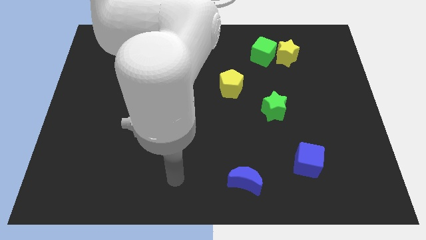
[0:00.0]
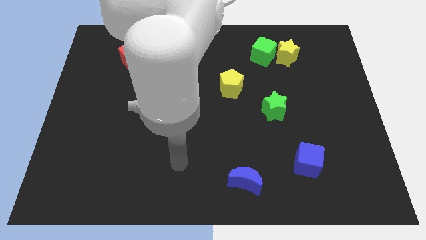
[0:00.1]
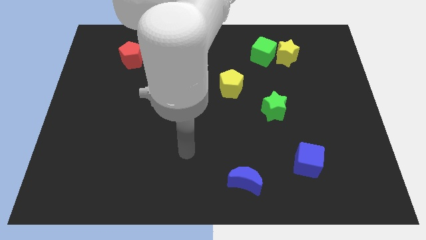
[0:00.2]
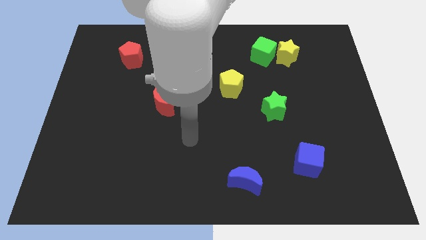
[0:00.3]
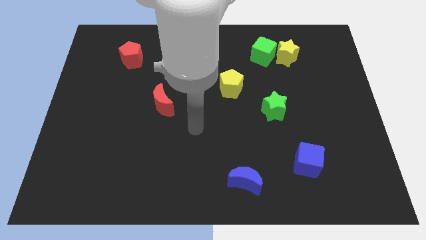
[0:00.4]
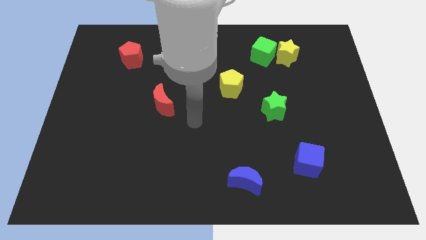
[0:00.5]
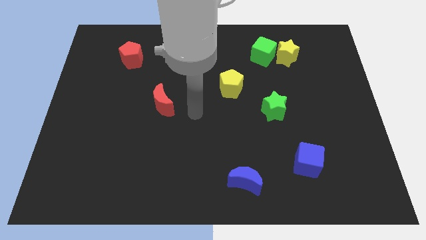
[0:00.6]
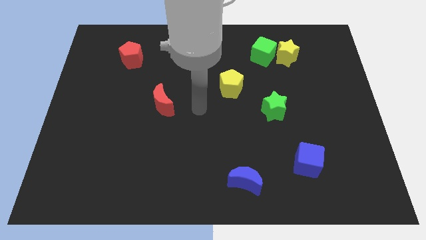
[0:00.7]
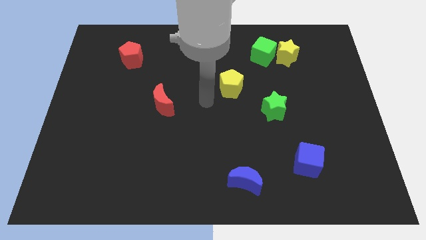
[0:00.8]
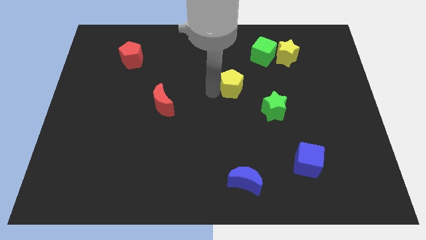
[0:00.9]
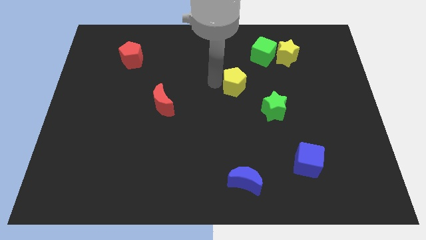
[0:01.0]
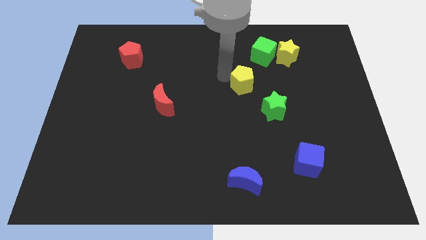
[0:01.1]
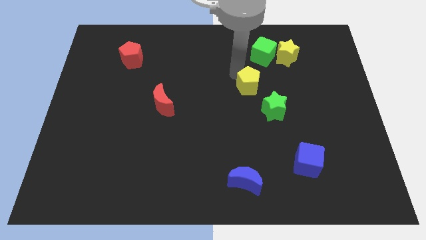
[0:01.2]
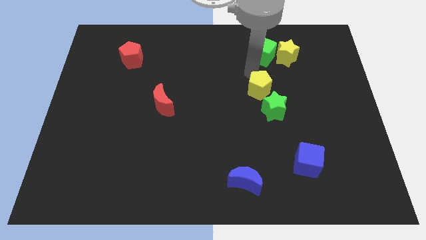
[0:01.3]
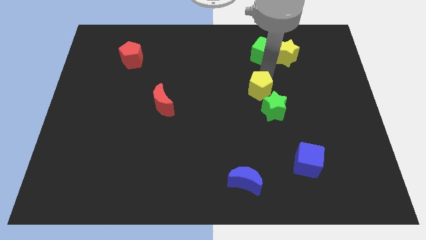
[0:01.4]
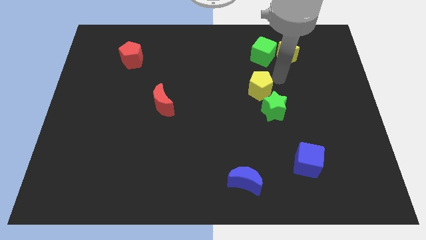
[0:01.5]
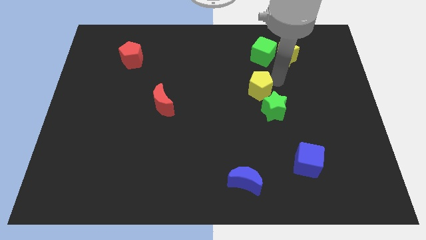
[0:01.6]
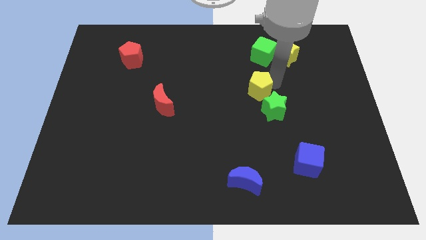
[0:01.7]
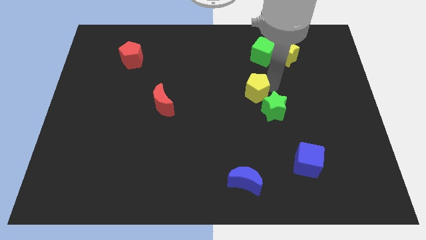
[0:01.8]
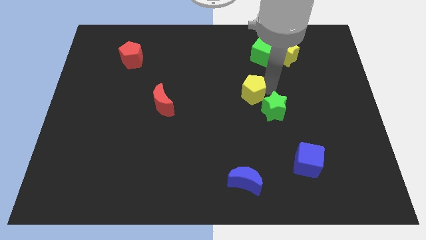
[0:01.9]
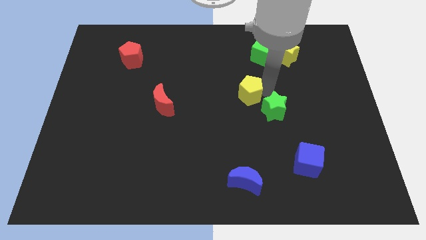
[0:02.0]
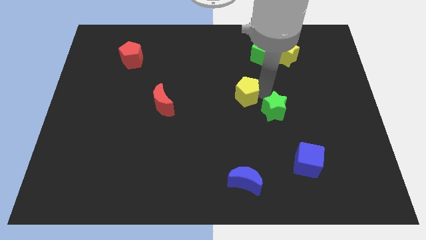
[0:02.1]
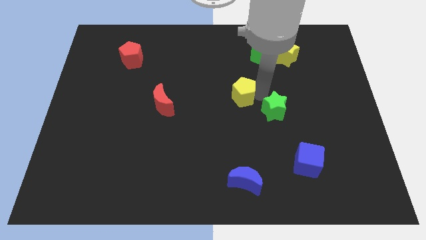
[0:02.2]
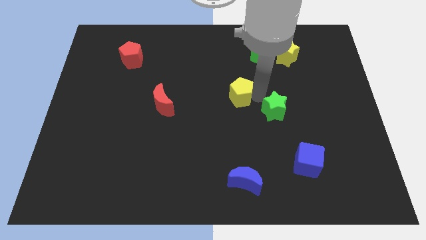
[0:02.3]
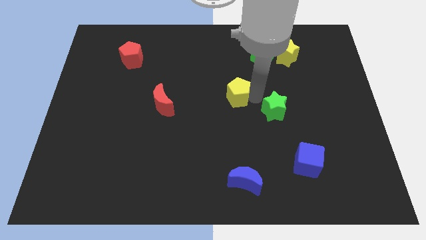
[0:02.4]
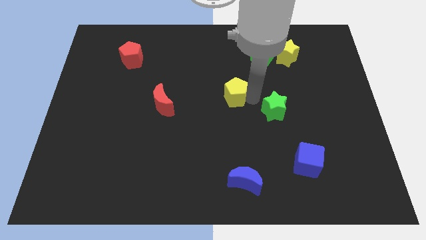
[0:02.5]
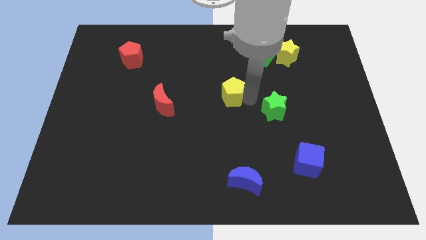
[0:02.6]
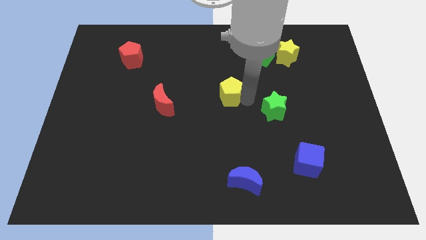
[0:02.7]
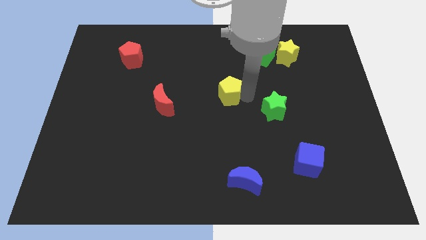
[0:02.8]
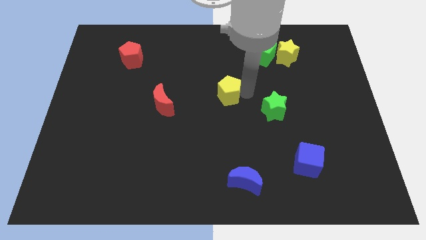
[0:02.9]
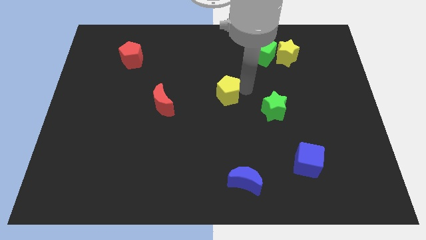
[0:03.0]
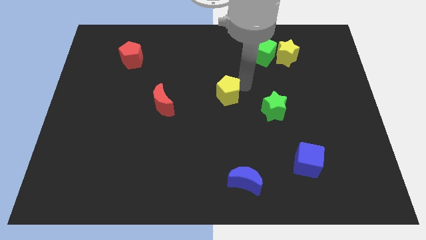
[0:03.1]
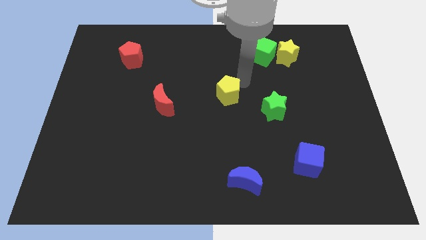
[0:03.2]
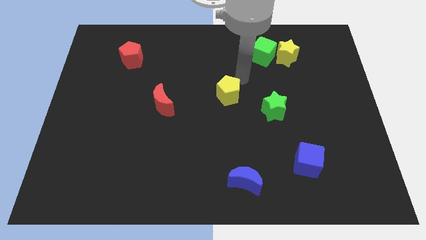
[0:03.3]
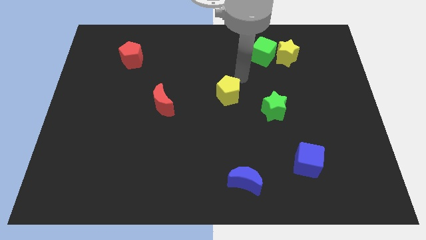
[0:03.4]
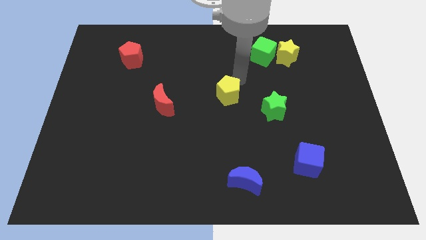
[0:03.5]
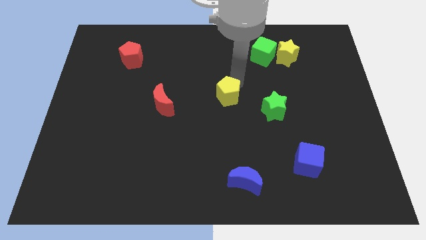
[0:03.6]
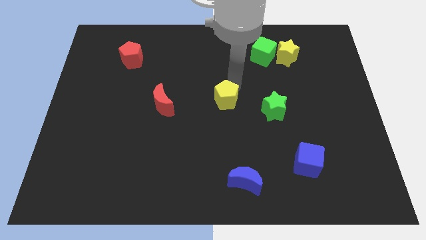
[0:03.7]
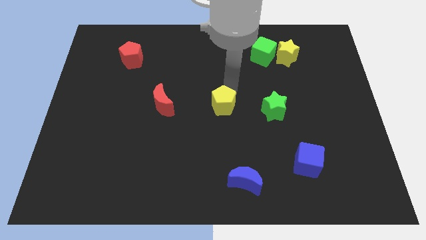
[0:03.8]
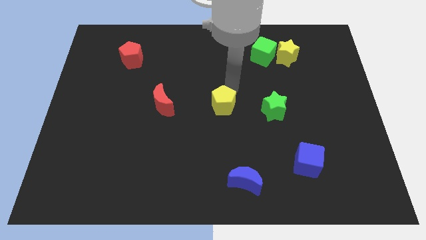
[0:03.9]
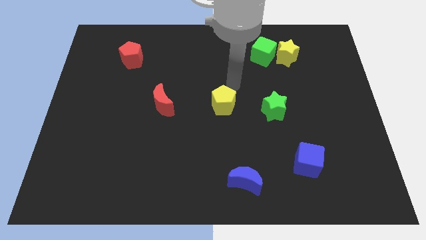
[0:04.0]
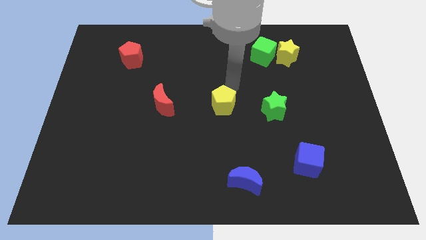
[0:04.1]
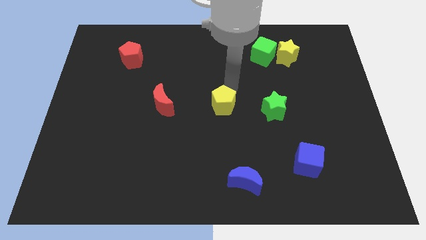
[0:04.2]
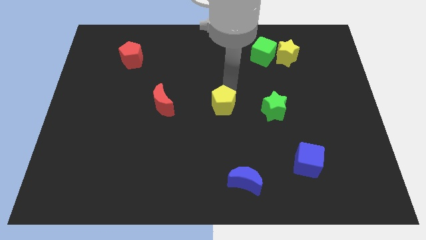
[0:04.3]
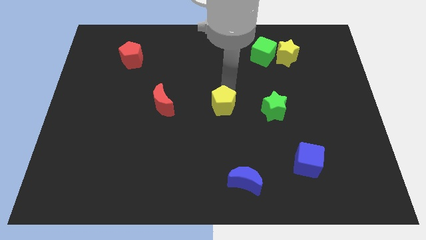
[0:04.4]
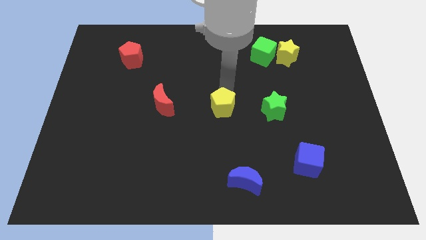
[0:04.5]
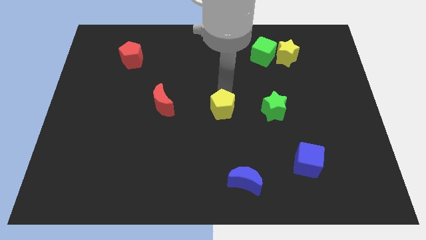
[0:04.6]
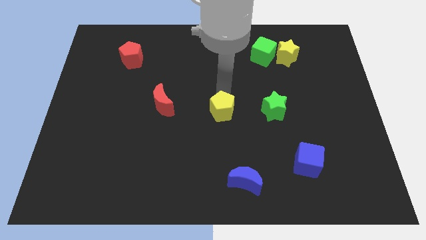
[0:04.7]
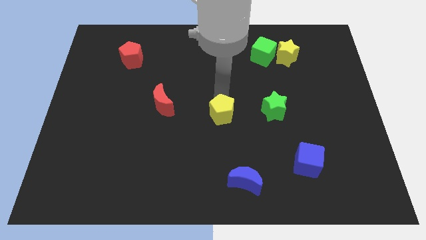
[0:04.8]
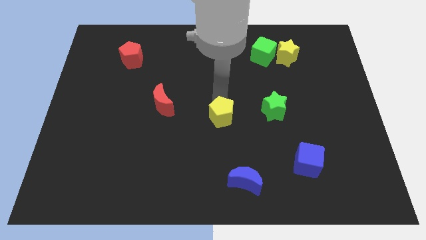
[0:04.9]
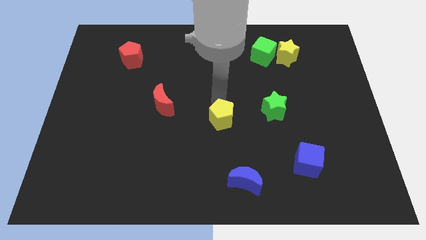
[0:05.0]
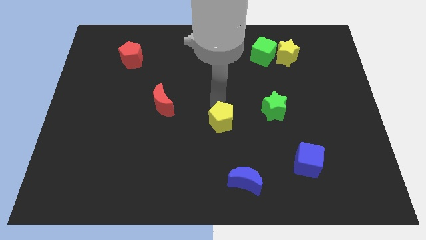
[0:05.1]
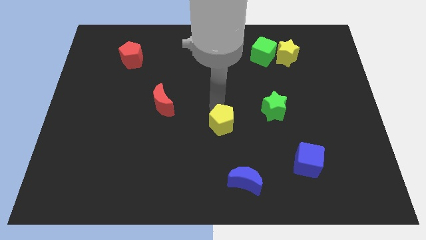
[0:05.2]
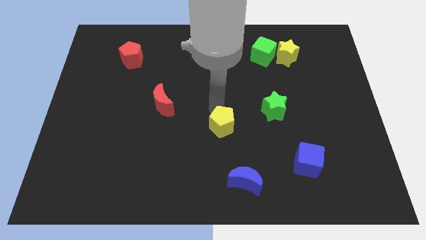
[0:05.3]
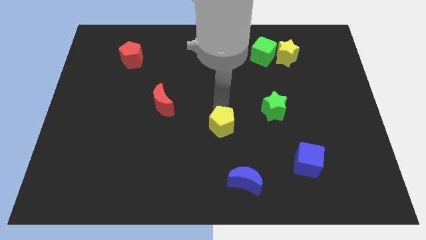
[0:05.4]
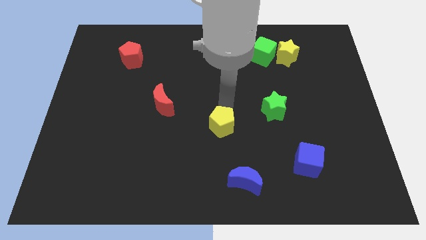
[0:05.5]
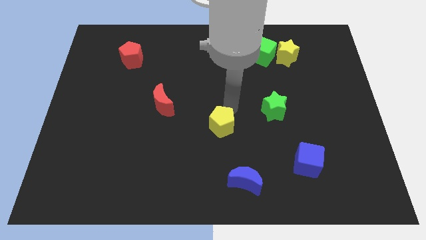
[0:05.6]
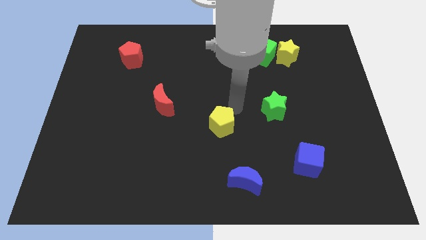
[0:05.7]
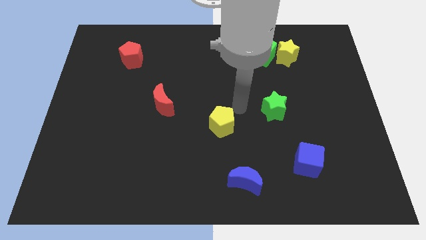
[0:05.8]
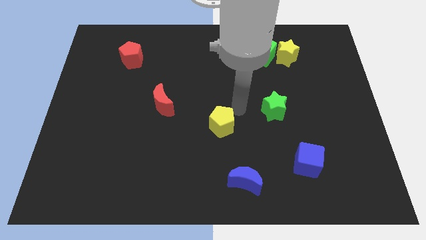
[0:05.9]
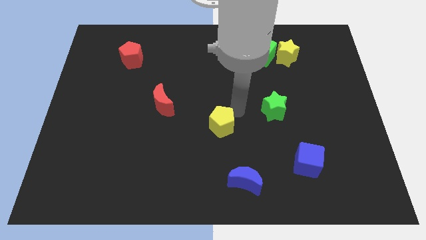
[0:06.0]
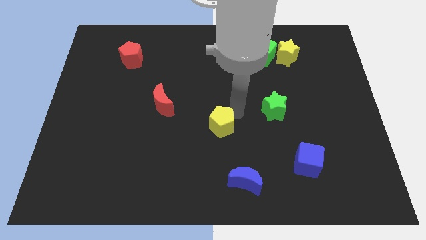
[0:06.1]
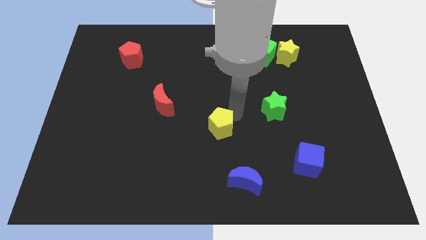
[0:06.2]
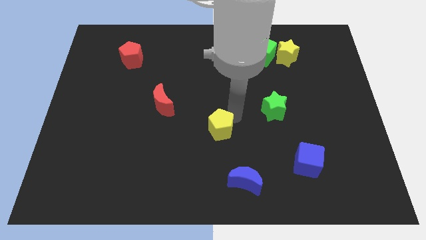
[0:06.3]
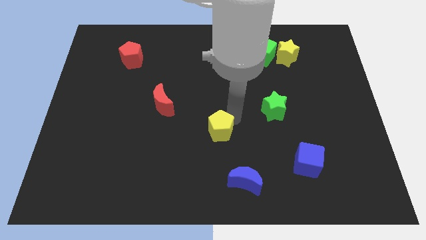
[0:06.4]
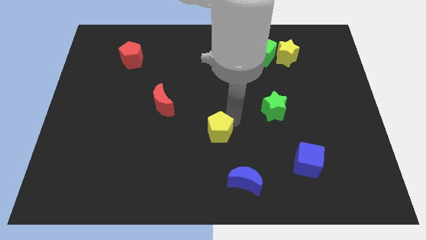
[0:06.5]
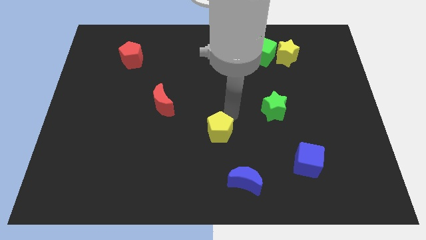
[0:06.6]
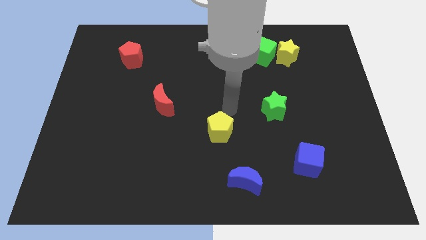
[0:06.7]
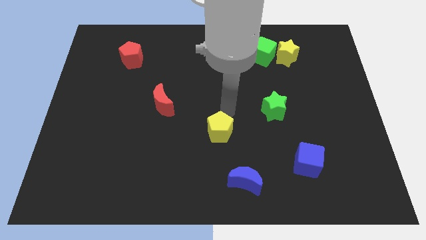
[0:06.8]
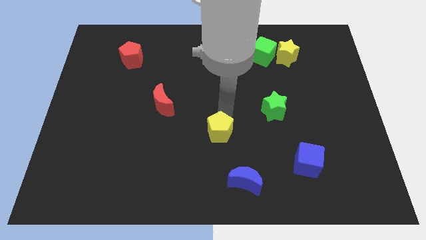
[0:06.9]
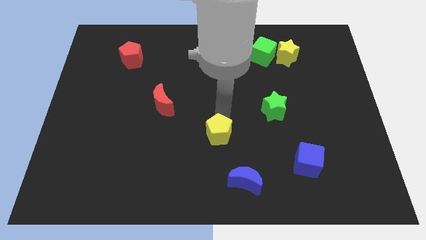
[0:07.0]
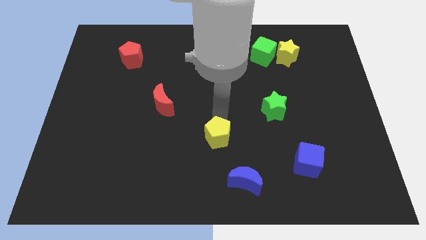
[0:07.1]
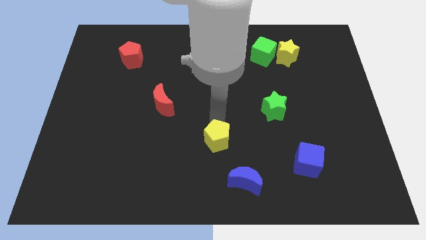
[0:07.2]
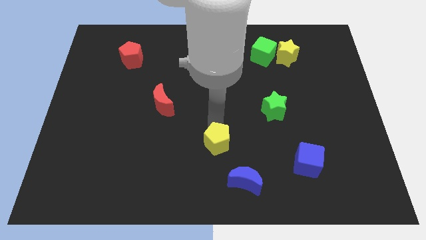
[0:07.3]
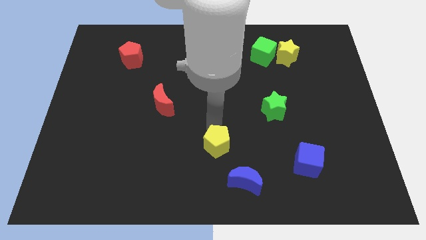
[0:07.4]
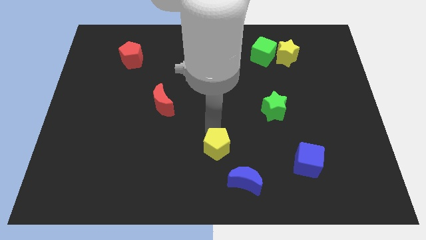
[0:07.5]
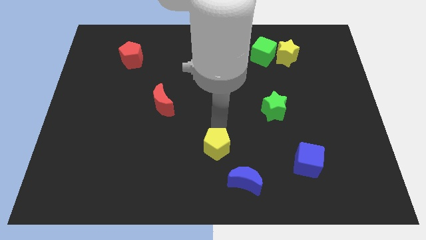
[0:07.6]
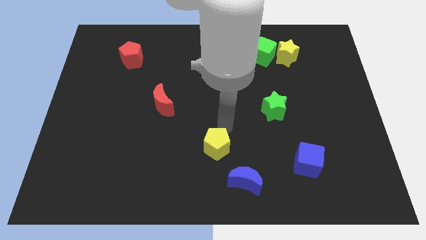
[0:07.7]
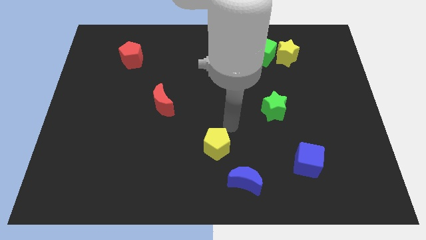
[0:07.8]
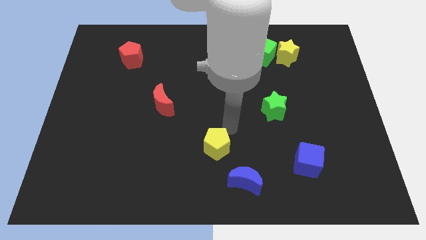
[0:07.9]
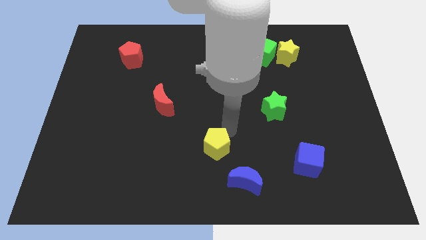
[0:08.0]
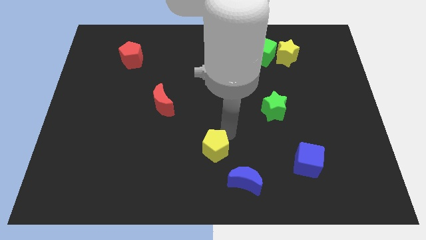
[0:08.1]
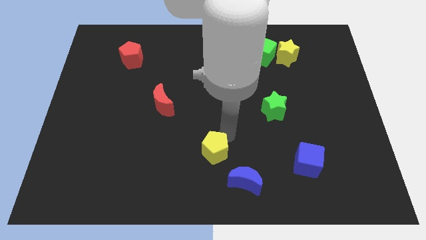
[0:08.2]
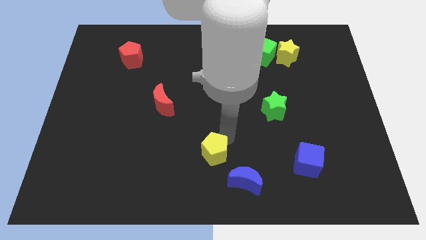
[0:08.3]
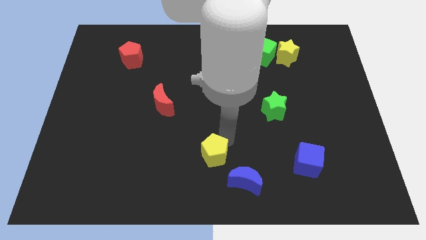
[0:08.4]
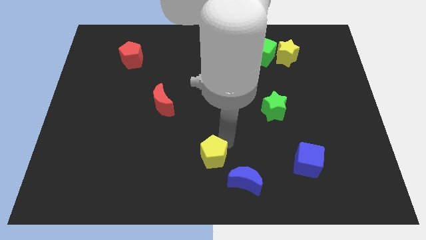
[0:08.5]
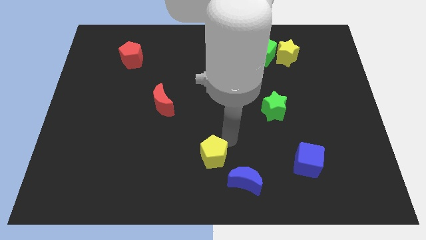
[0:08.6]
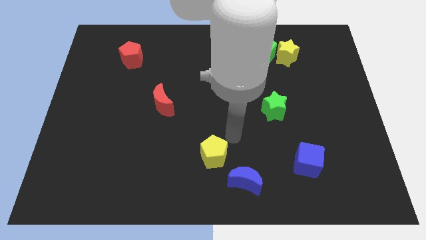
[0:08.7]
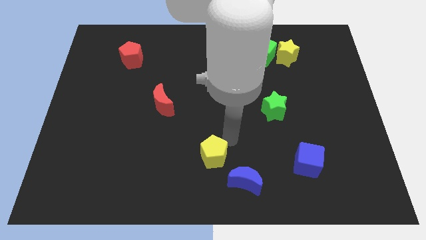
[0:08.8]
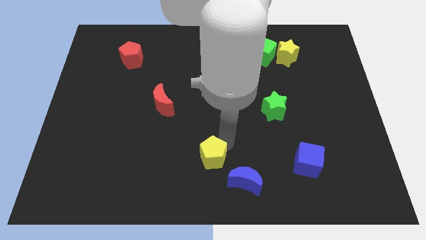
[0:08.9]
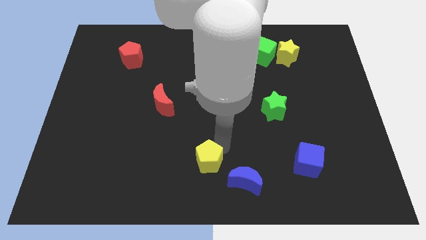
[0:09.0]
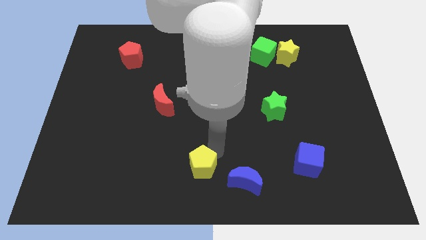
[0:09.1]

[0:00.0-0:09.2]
move the yellow pentagon to the left side of the blue moon
